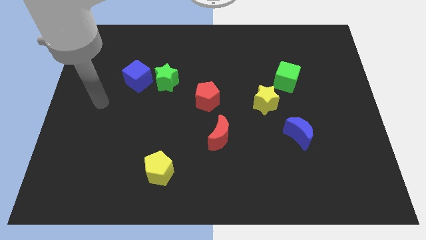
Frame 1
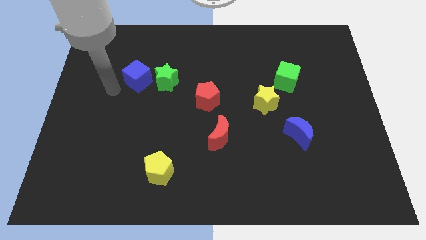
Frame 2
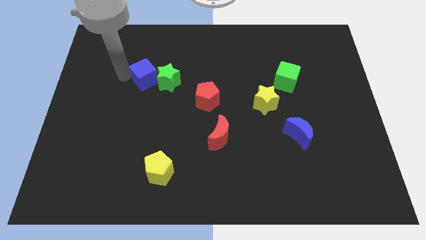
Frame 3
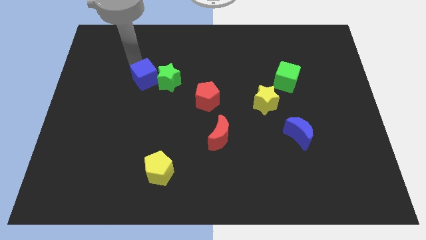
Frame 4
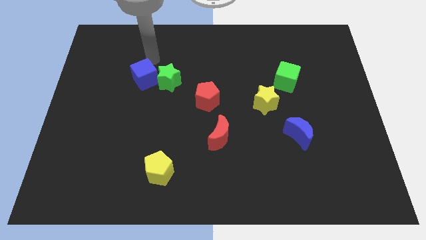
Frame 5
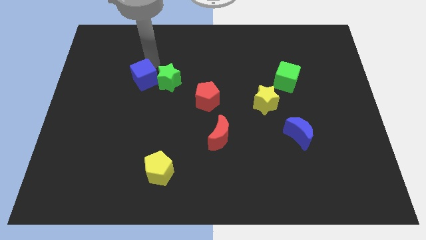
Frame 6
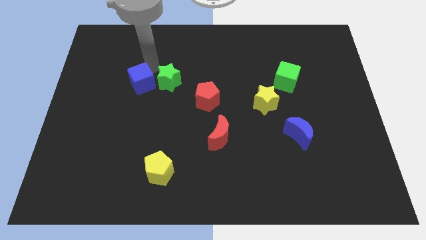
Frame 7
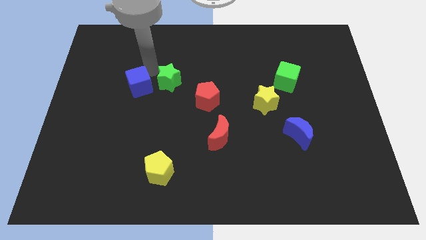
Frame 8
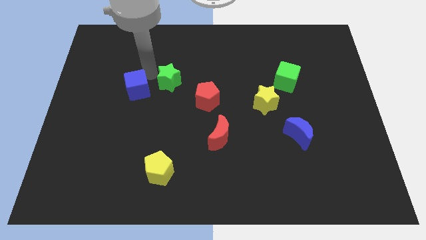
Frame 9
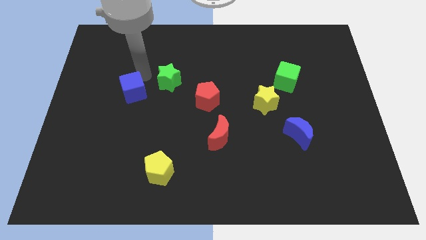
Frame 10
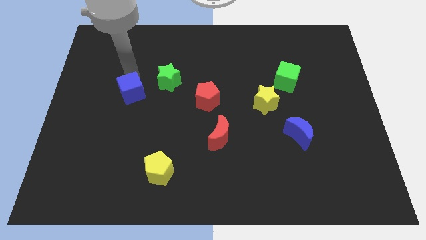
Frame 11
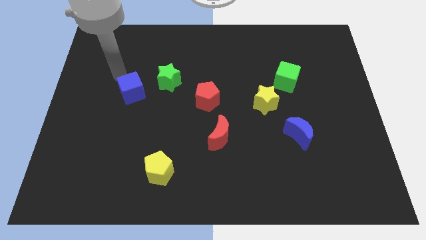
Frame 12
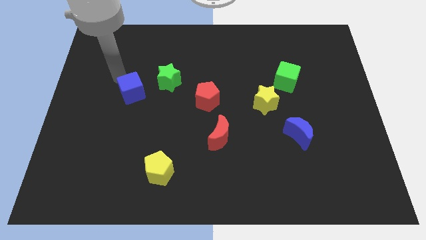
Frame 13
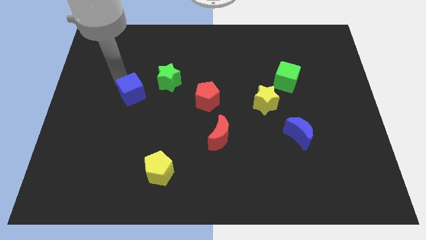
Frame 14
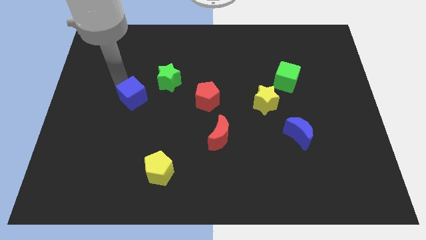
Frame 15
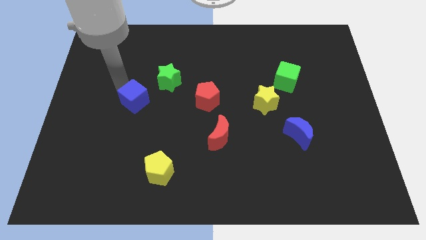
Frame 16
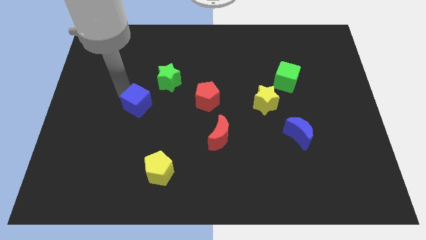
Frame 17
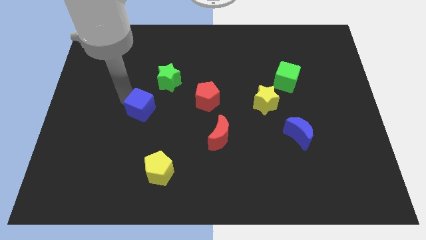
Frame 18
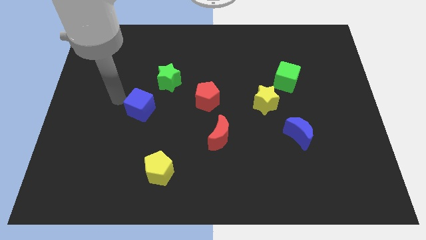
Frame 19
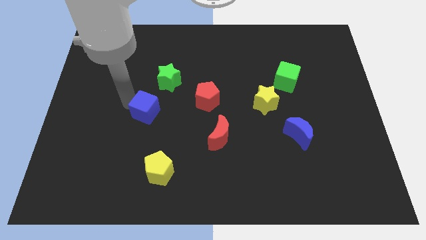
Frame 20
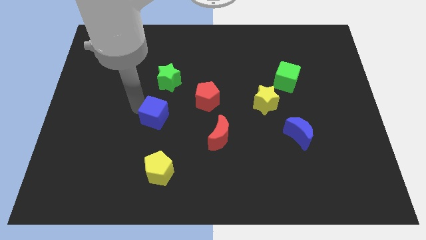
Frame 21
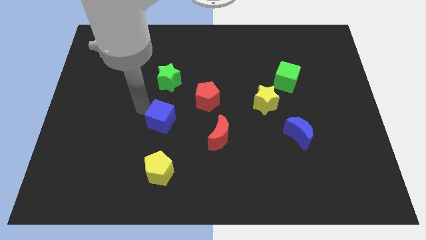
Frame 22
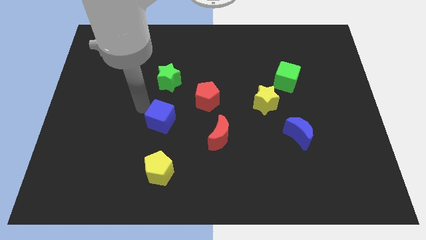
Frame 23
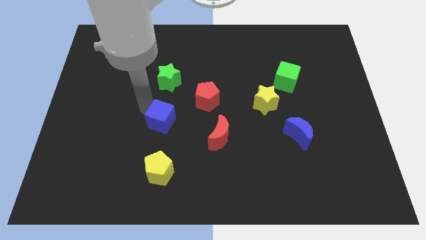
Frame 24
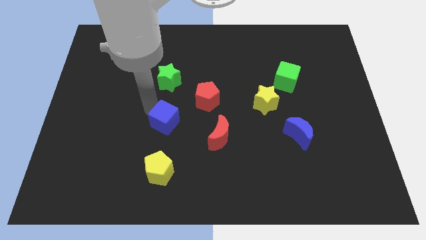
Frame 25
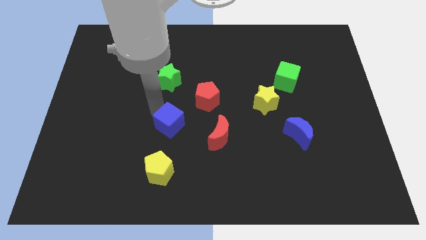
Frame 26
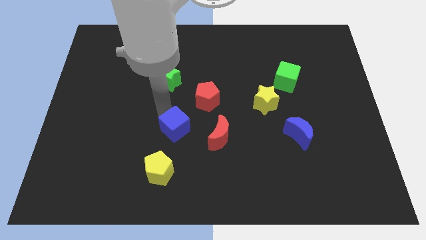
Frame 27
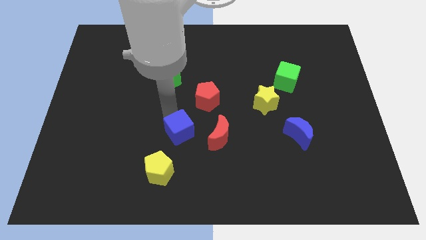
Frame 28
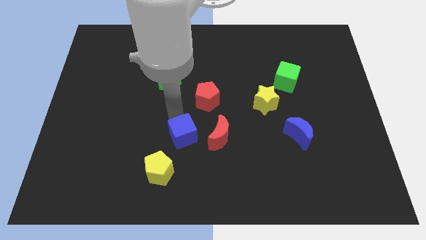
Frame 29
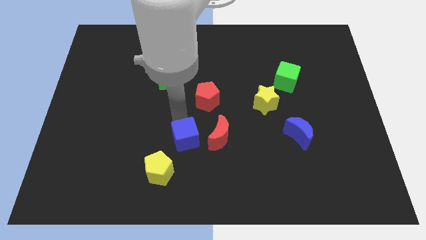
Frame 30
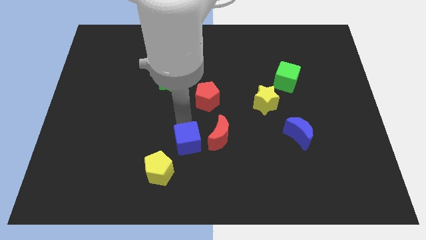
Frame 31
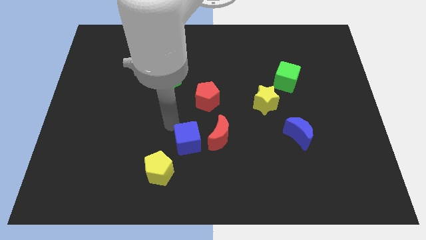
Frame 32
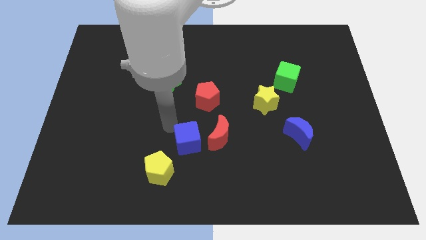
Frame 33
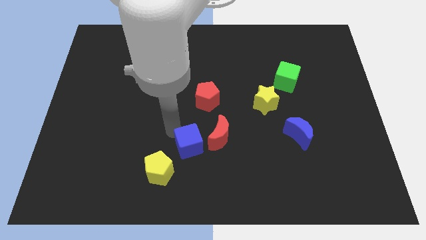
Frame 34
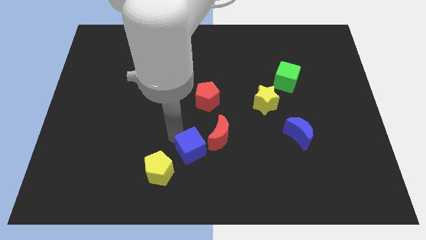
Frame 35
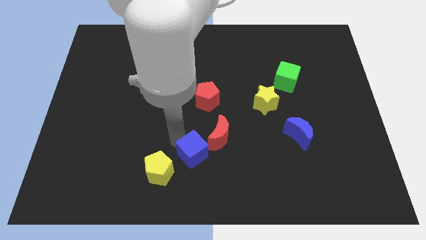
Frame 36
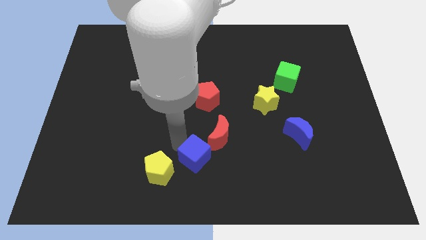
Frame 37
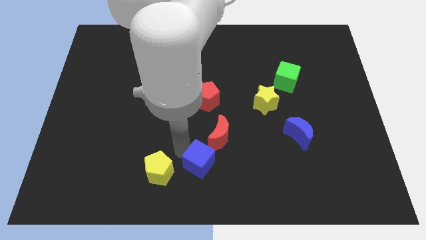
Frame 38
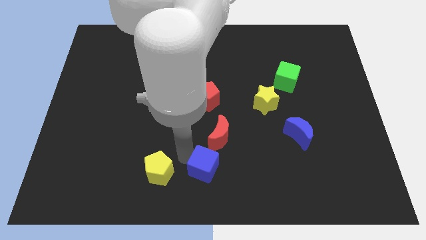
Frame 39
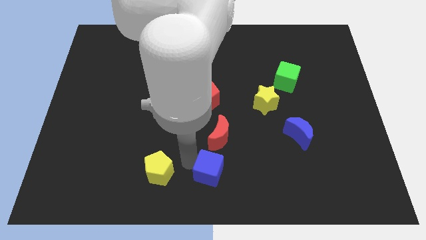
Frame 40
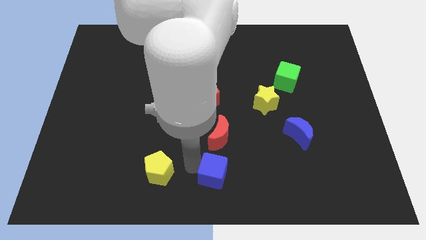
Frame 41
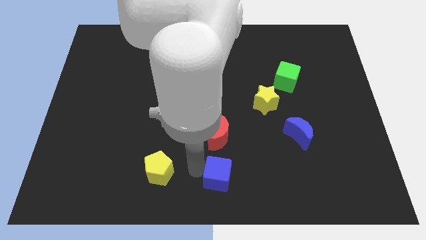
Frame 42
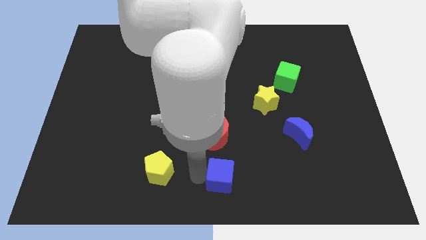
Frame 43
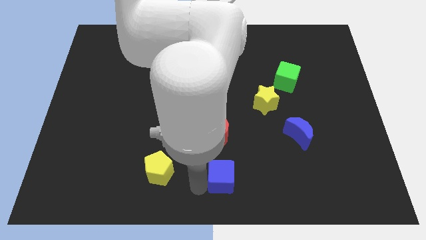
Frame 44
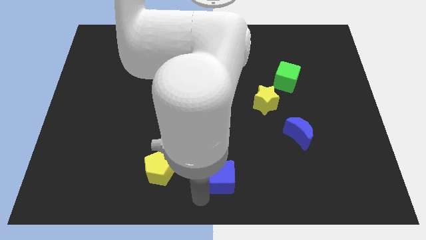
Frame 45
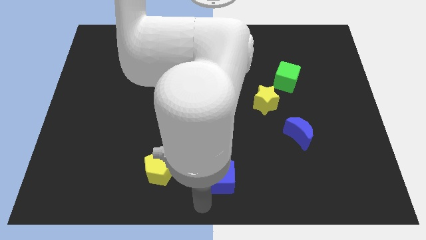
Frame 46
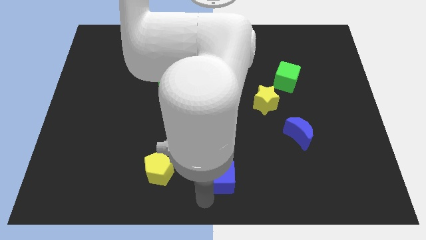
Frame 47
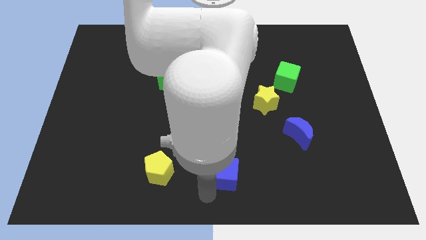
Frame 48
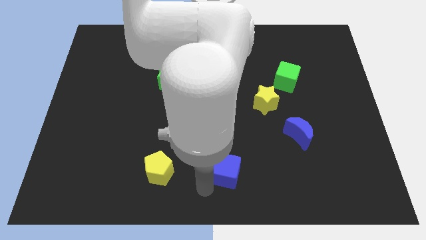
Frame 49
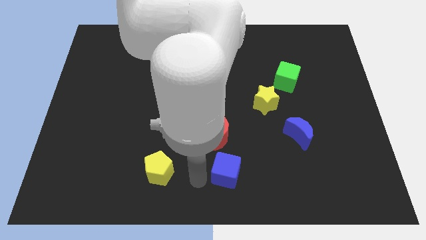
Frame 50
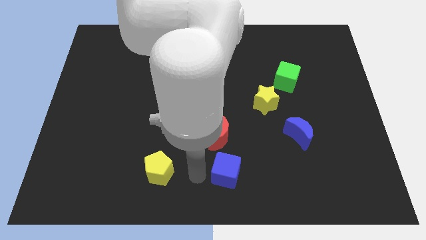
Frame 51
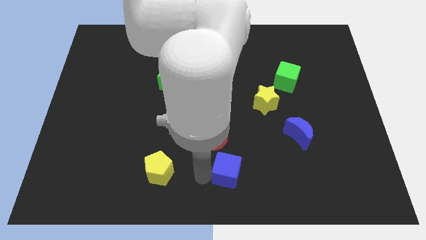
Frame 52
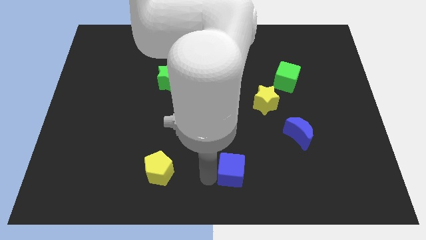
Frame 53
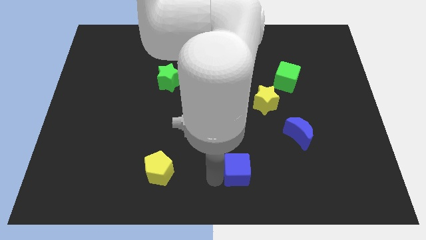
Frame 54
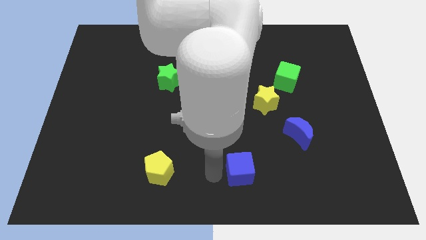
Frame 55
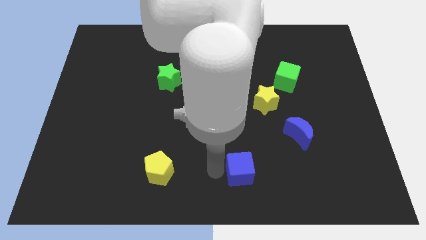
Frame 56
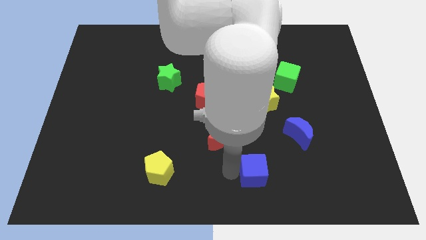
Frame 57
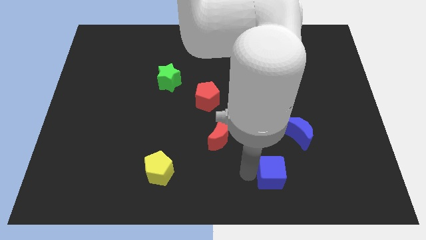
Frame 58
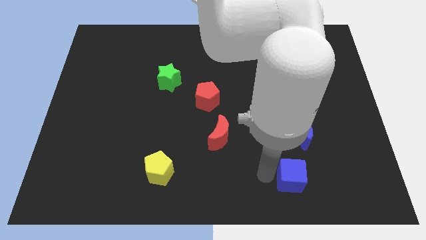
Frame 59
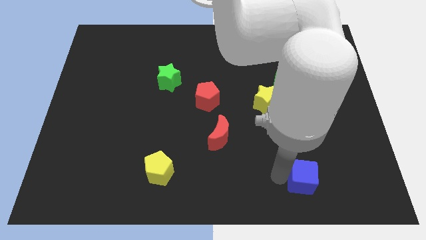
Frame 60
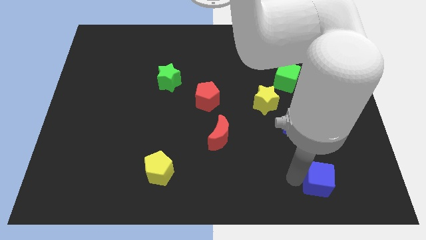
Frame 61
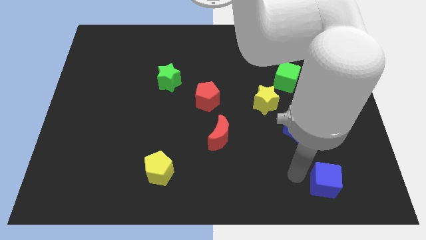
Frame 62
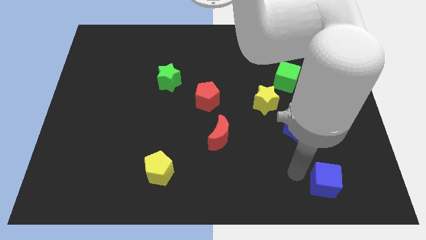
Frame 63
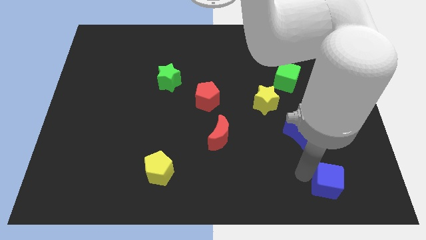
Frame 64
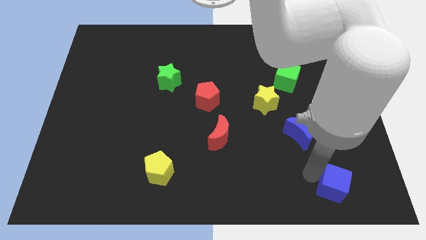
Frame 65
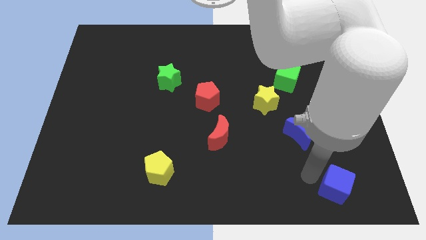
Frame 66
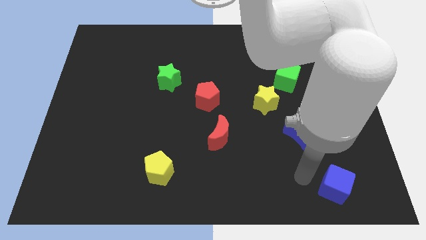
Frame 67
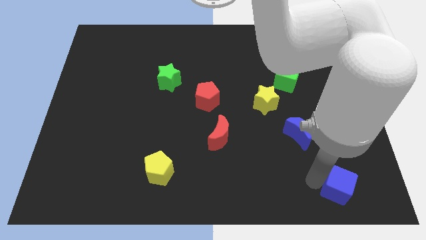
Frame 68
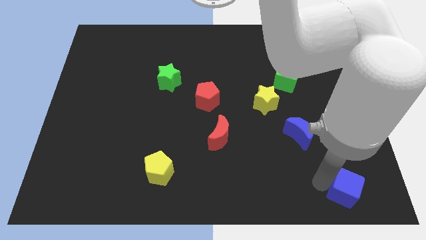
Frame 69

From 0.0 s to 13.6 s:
put the blue cube to the lower right corner

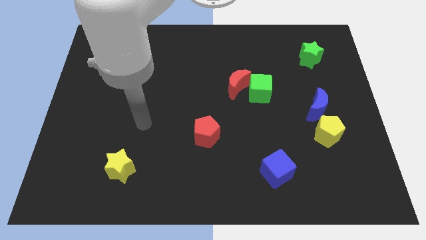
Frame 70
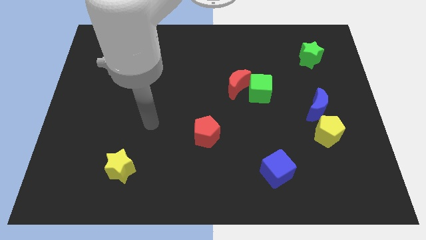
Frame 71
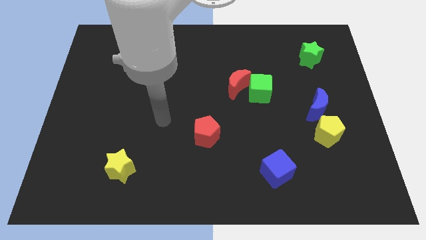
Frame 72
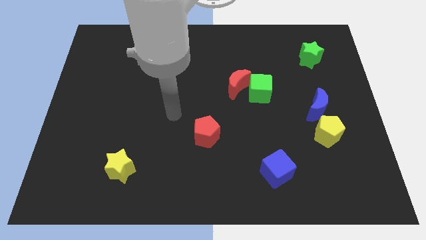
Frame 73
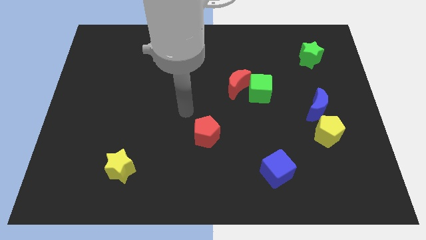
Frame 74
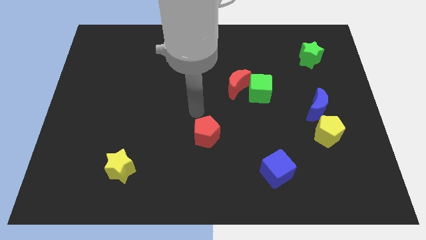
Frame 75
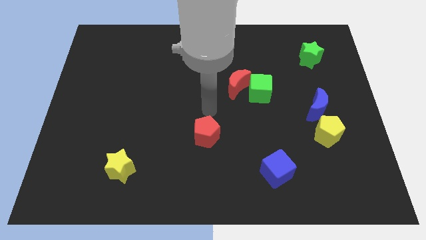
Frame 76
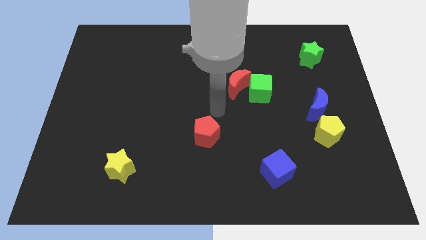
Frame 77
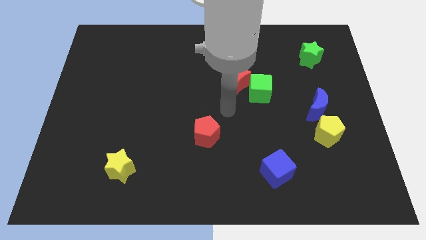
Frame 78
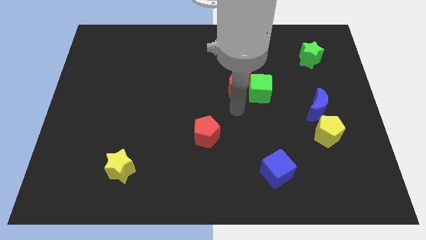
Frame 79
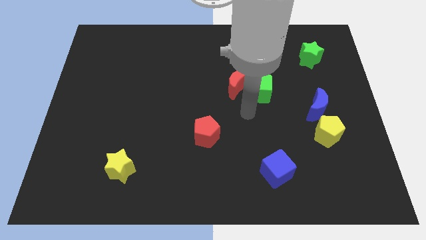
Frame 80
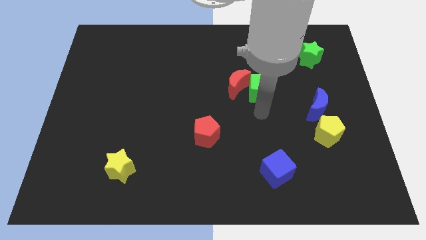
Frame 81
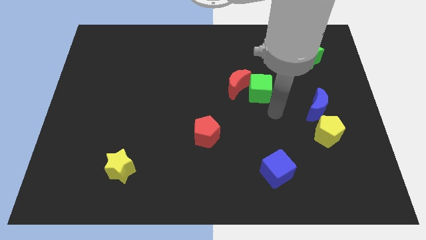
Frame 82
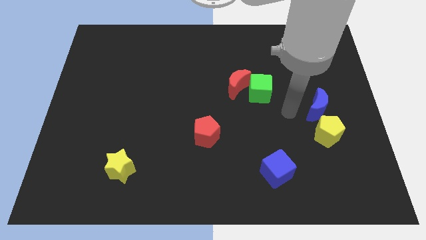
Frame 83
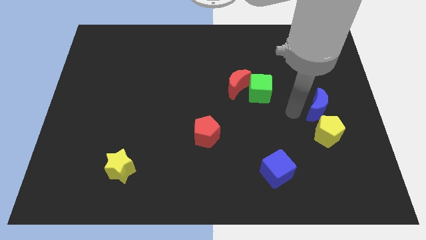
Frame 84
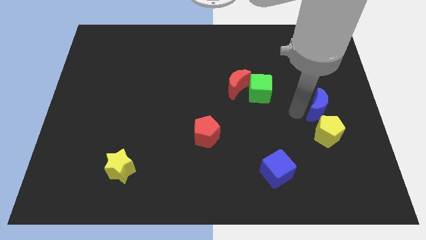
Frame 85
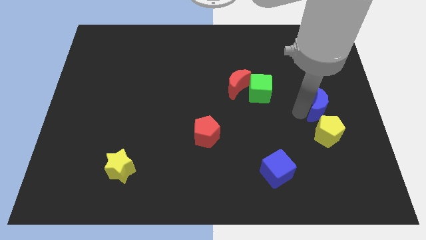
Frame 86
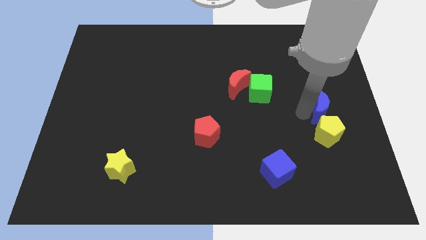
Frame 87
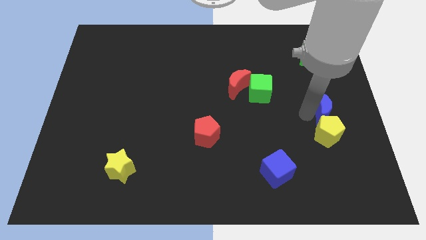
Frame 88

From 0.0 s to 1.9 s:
slide the blue moon to the right side of the board
